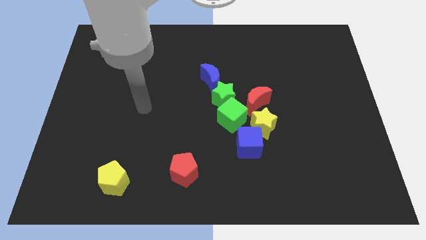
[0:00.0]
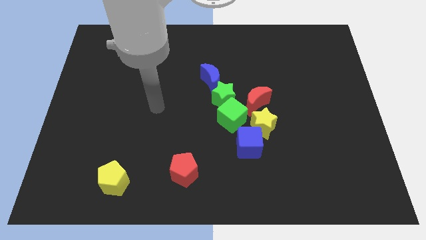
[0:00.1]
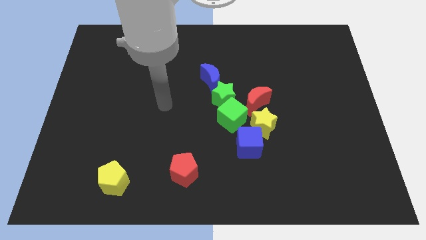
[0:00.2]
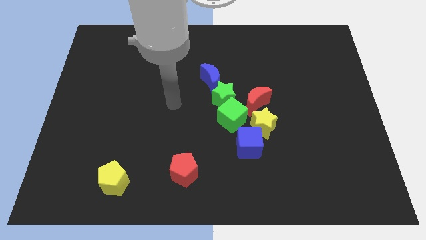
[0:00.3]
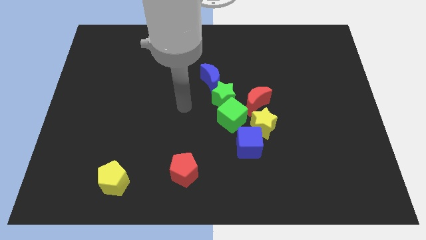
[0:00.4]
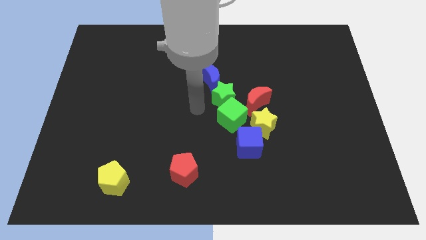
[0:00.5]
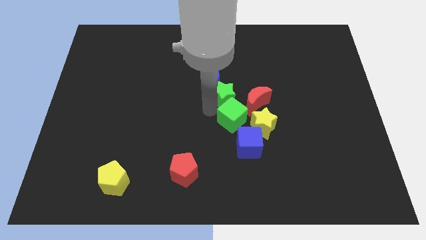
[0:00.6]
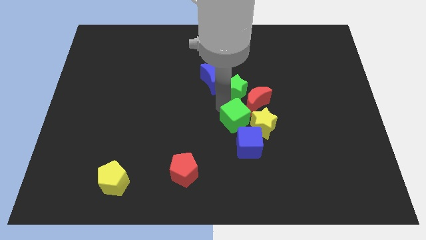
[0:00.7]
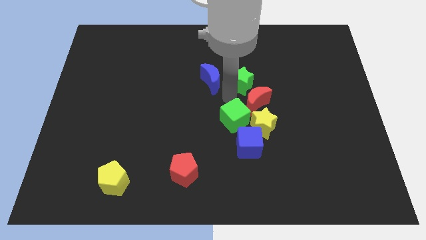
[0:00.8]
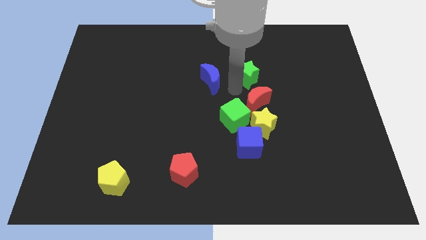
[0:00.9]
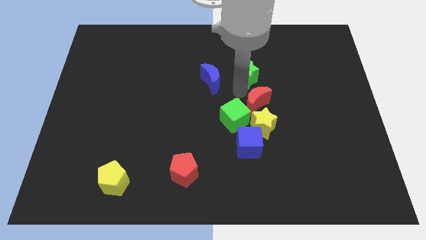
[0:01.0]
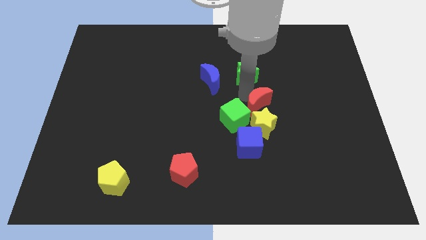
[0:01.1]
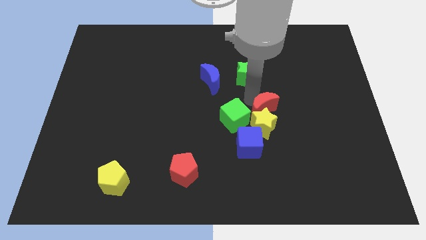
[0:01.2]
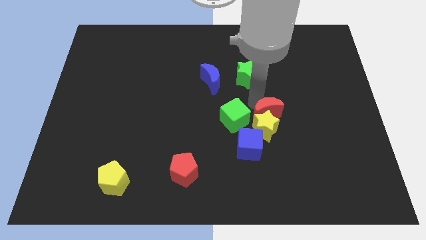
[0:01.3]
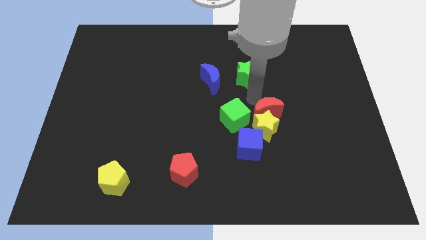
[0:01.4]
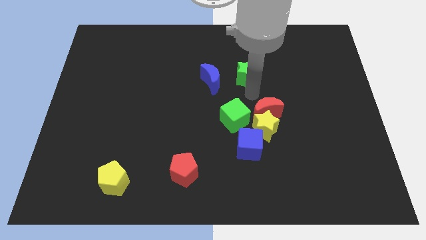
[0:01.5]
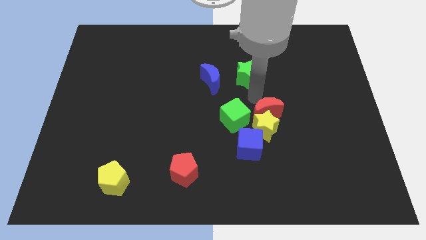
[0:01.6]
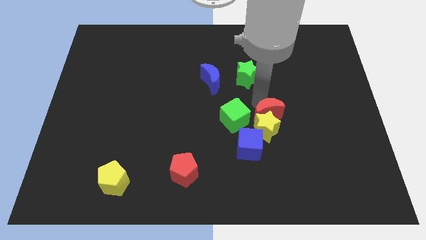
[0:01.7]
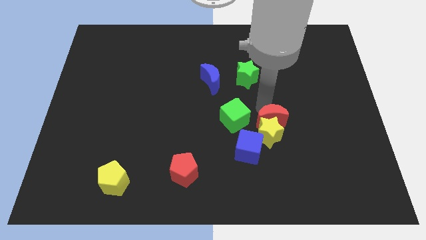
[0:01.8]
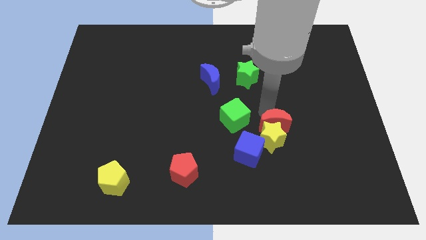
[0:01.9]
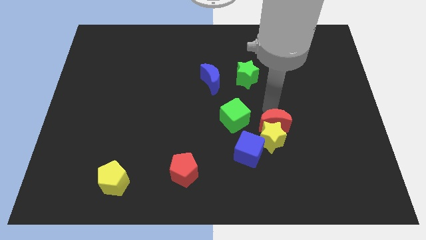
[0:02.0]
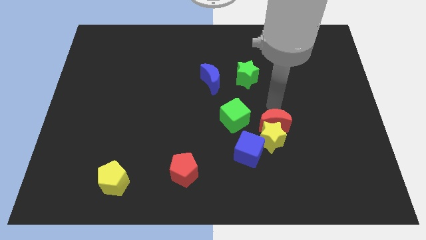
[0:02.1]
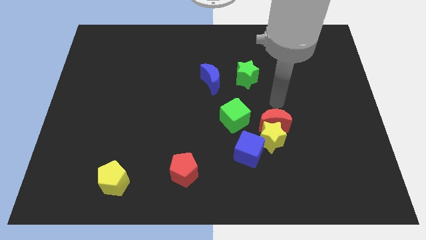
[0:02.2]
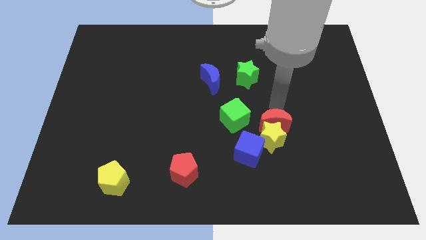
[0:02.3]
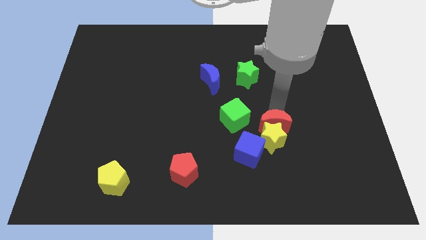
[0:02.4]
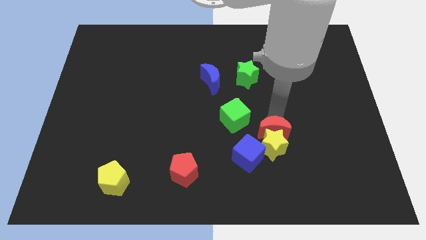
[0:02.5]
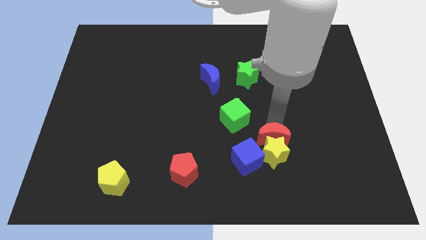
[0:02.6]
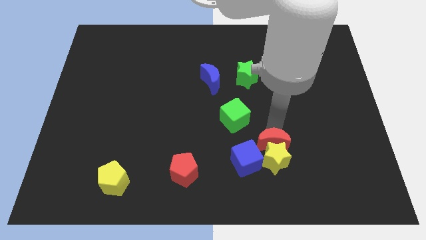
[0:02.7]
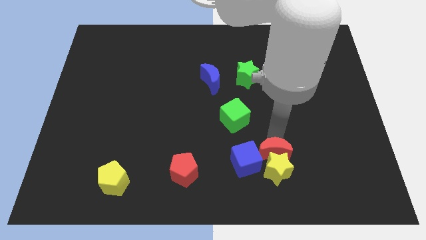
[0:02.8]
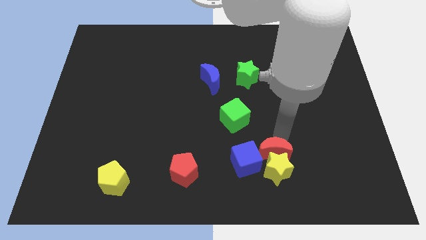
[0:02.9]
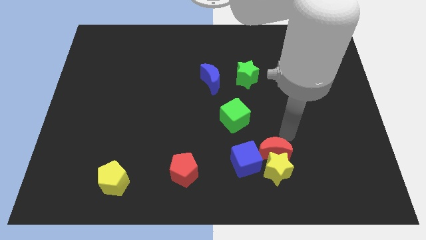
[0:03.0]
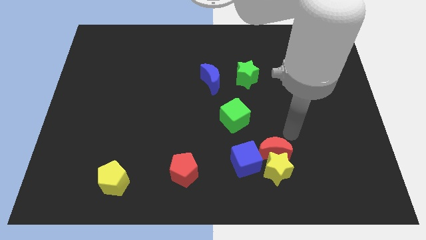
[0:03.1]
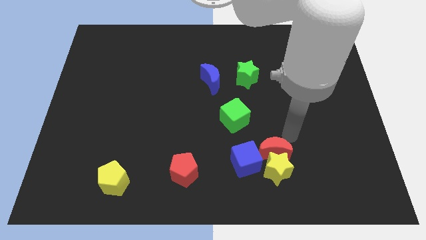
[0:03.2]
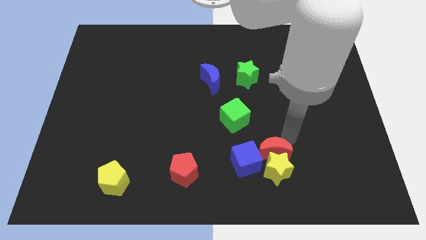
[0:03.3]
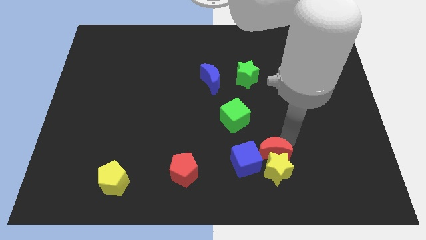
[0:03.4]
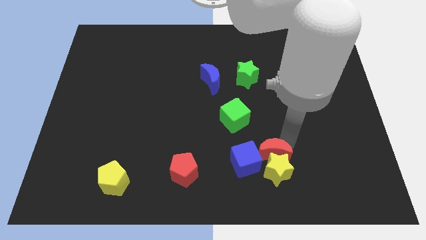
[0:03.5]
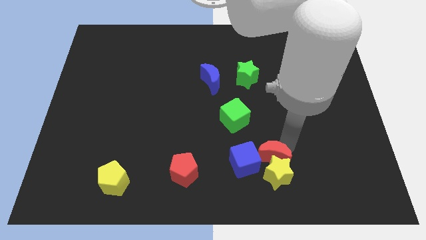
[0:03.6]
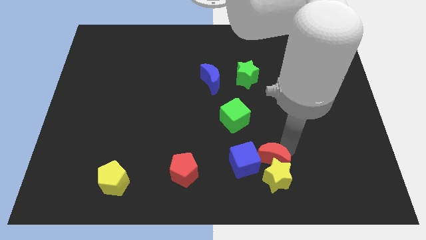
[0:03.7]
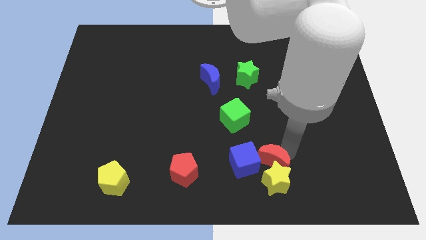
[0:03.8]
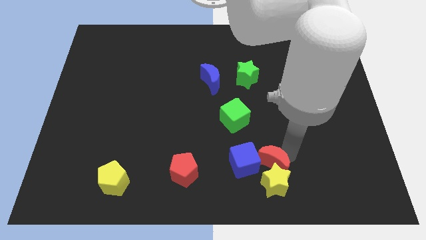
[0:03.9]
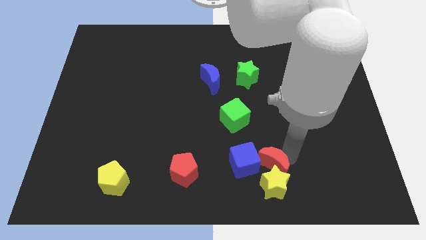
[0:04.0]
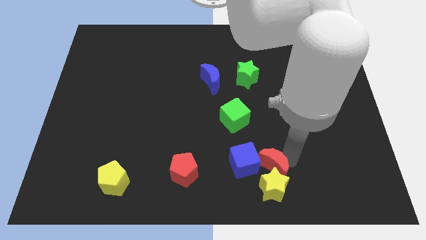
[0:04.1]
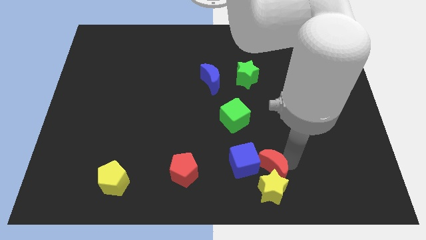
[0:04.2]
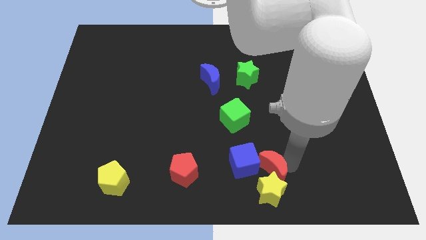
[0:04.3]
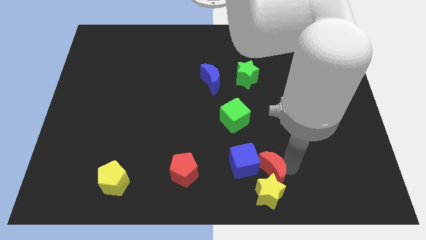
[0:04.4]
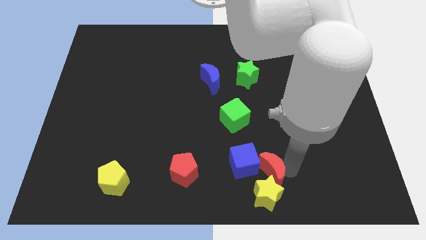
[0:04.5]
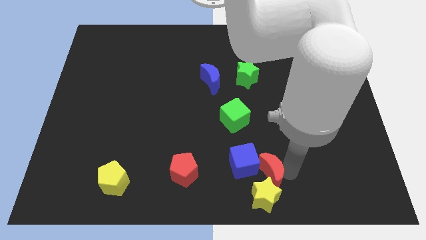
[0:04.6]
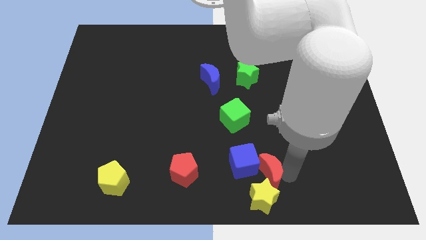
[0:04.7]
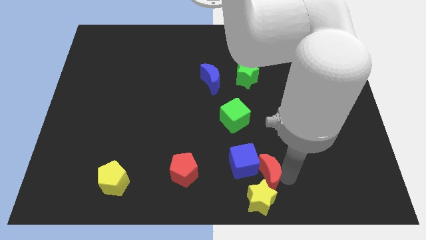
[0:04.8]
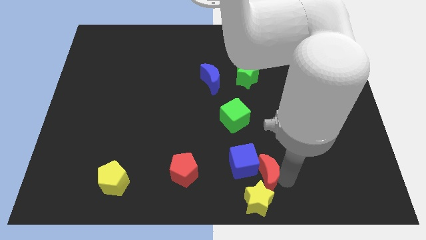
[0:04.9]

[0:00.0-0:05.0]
slide the red moon to the bottom

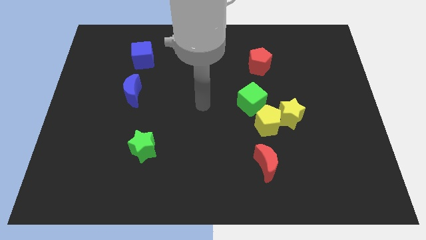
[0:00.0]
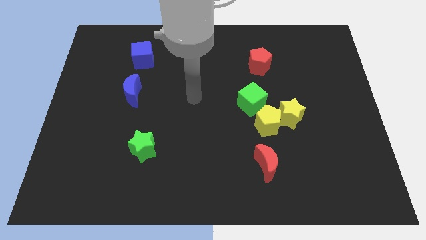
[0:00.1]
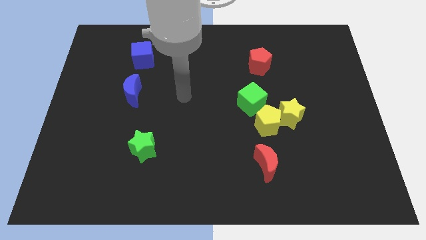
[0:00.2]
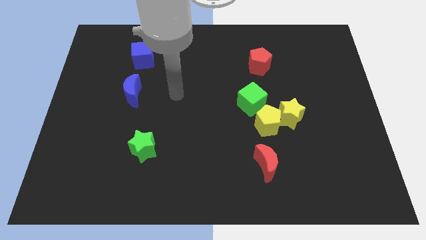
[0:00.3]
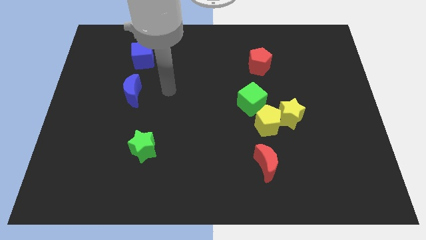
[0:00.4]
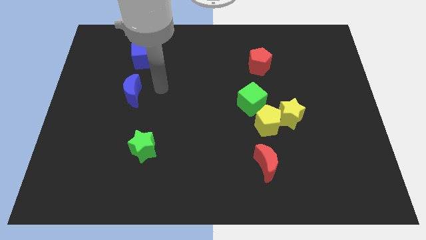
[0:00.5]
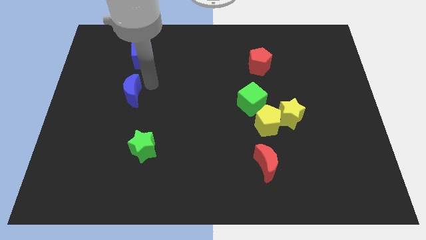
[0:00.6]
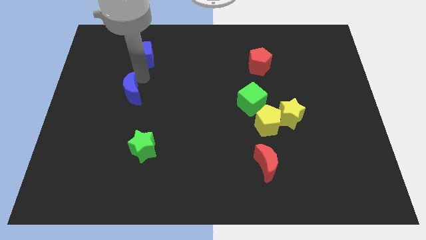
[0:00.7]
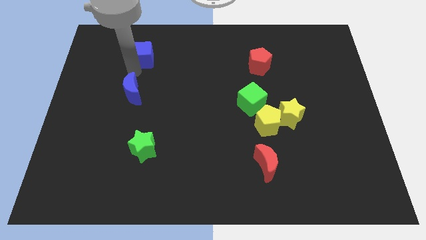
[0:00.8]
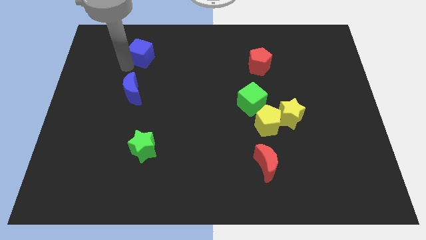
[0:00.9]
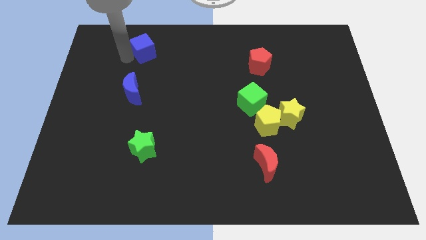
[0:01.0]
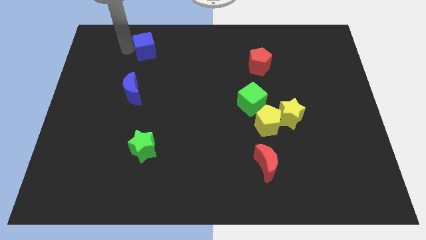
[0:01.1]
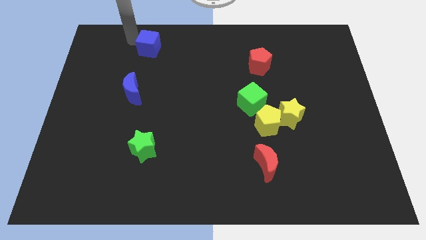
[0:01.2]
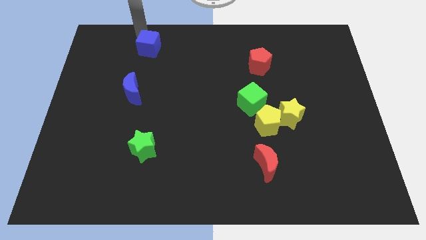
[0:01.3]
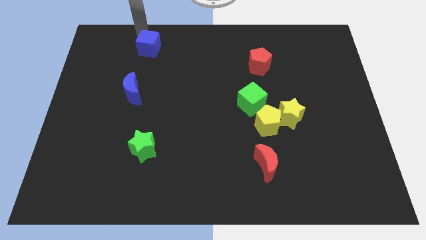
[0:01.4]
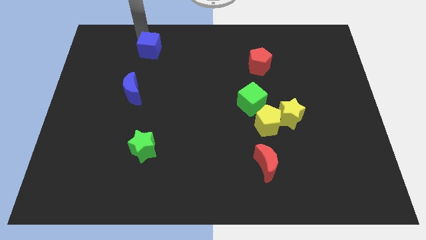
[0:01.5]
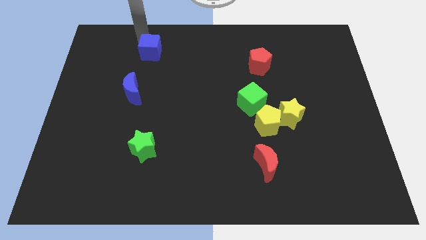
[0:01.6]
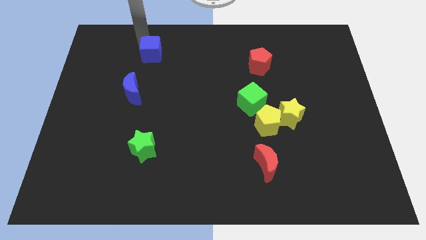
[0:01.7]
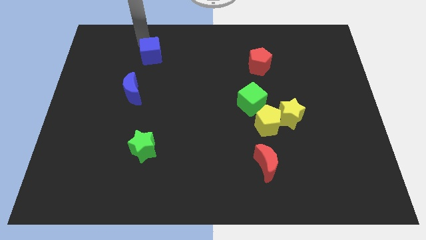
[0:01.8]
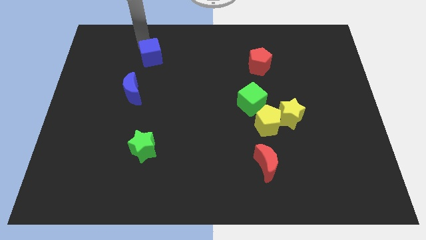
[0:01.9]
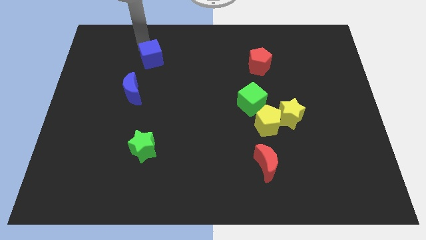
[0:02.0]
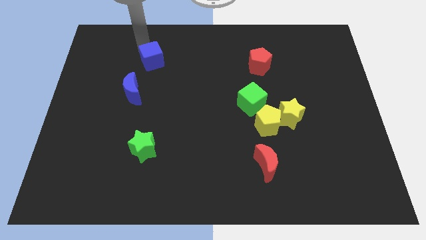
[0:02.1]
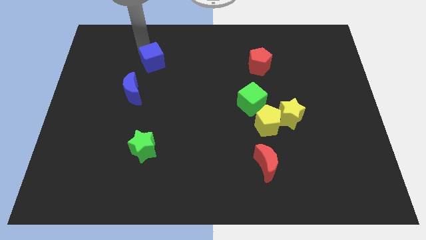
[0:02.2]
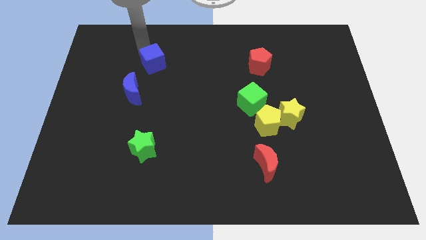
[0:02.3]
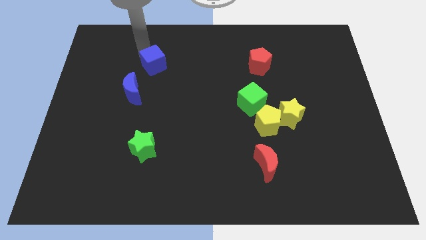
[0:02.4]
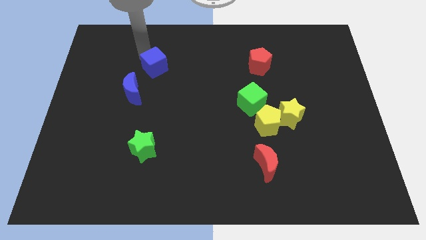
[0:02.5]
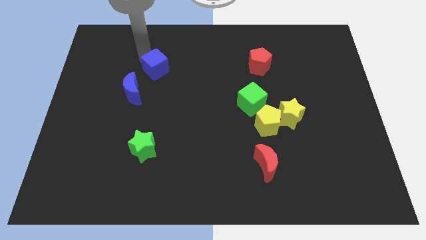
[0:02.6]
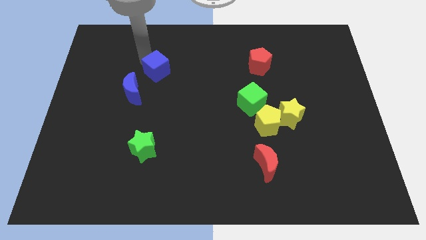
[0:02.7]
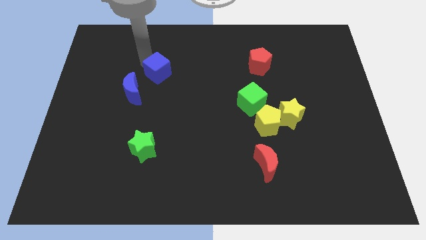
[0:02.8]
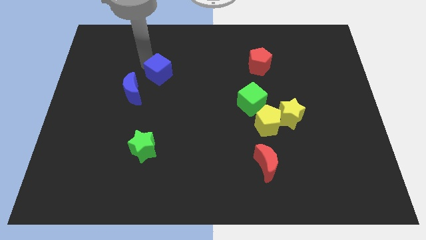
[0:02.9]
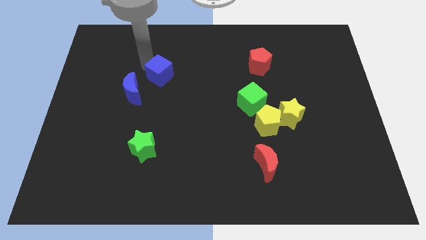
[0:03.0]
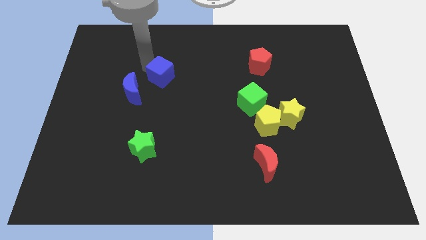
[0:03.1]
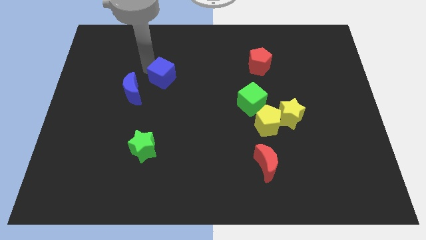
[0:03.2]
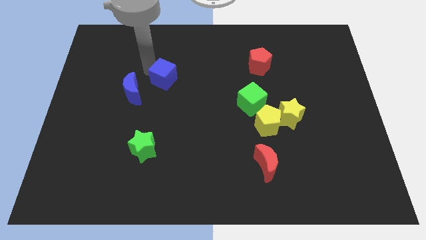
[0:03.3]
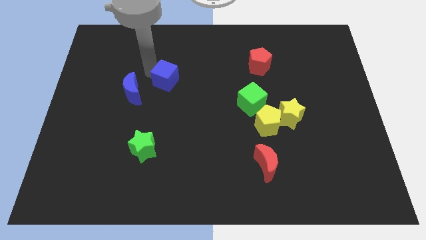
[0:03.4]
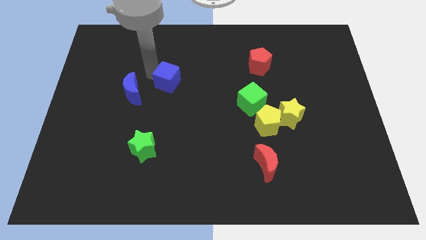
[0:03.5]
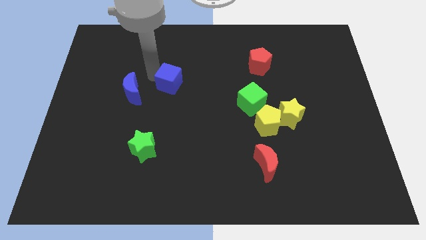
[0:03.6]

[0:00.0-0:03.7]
push the blue cube to the middle of the board
